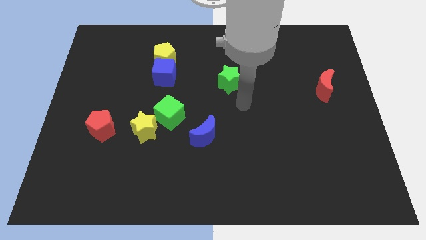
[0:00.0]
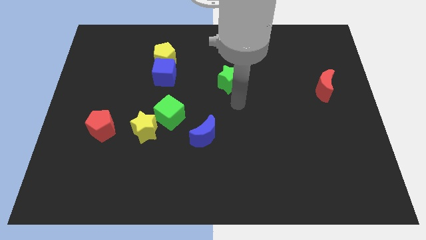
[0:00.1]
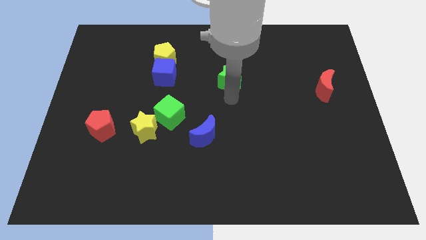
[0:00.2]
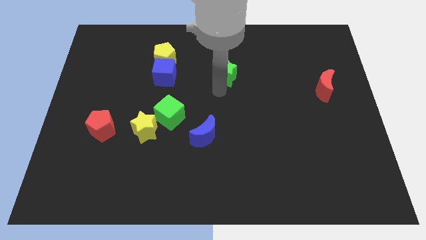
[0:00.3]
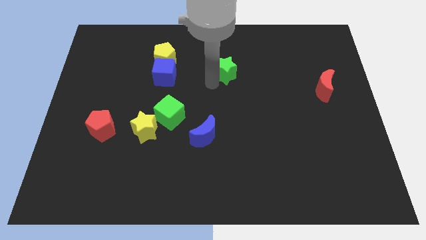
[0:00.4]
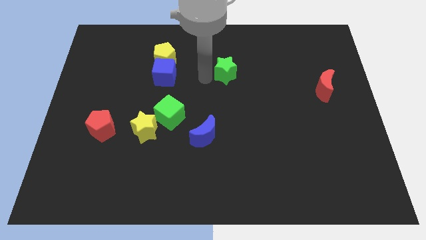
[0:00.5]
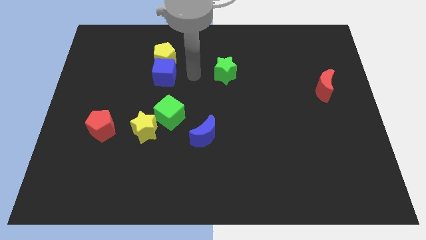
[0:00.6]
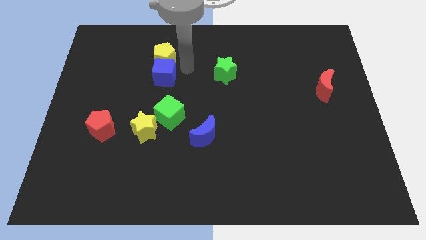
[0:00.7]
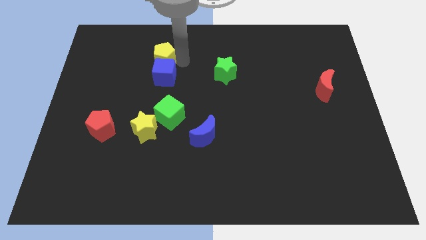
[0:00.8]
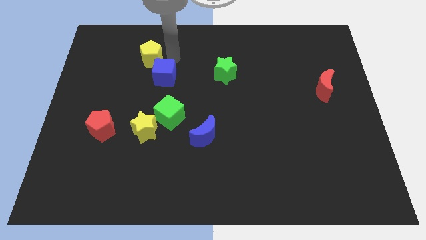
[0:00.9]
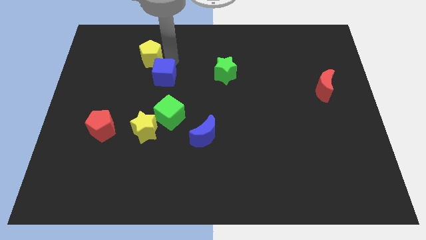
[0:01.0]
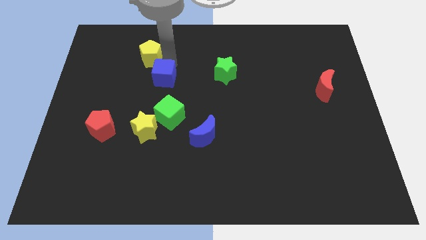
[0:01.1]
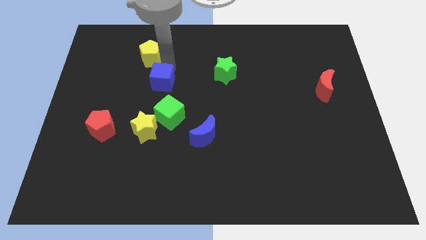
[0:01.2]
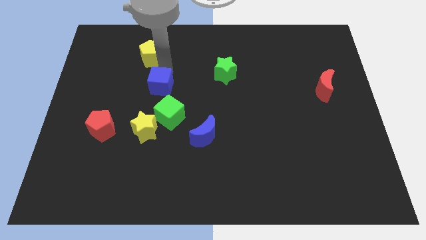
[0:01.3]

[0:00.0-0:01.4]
move the blue cube away from the yellow pentagon

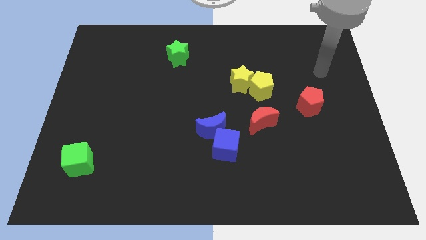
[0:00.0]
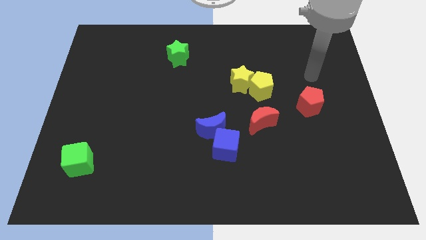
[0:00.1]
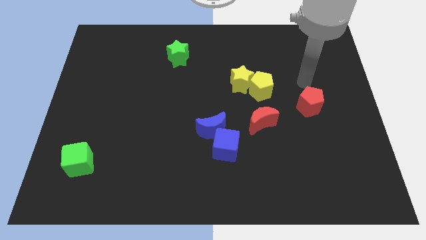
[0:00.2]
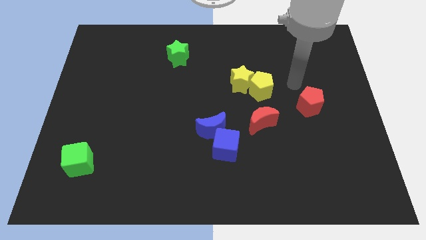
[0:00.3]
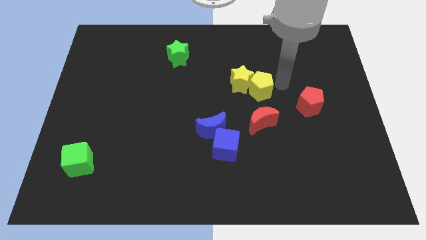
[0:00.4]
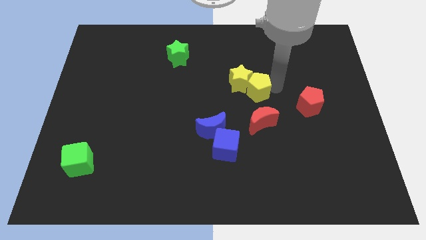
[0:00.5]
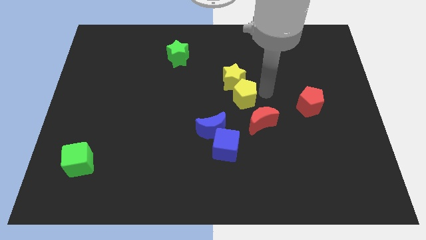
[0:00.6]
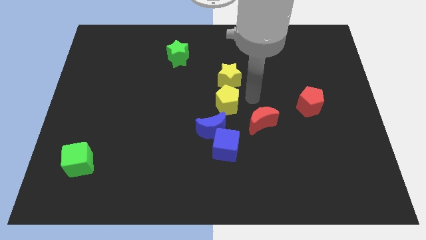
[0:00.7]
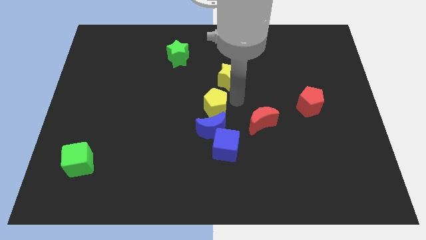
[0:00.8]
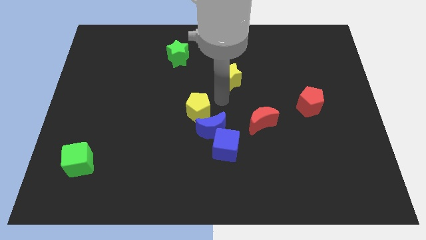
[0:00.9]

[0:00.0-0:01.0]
move the yellow star away from the yellow pentagon

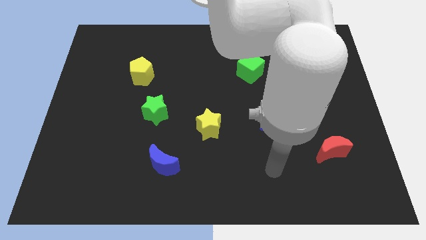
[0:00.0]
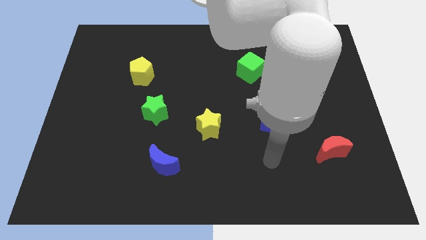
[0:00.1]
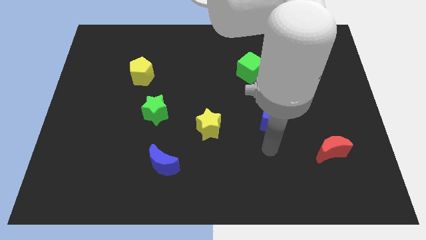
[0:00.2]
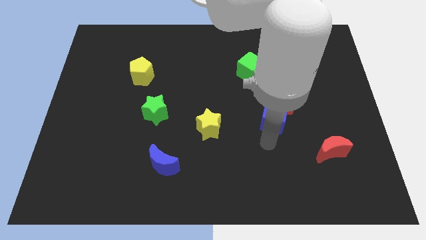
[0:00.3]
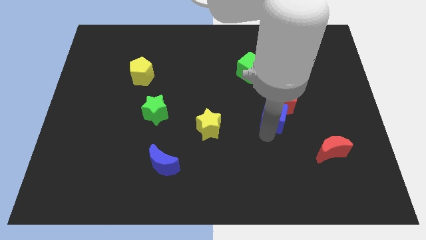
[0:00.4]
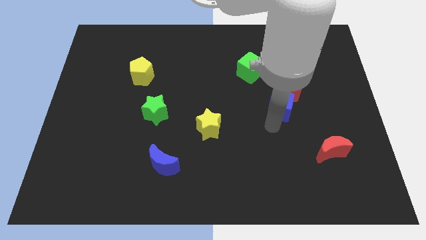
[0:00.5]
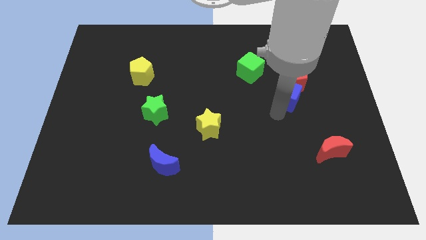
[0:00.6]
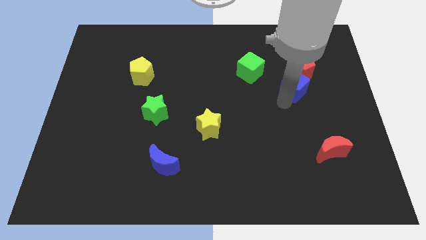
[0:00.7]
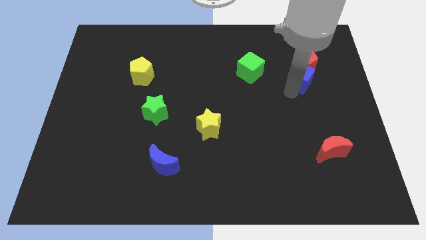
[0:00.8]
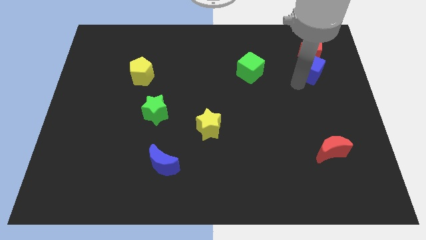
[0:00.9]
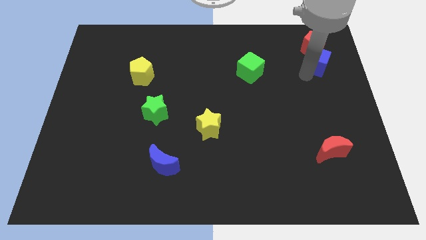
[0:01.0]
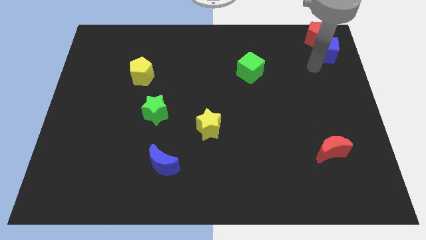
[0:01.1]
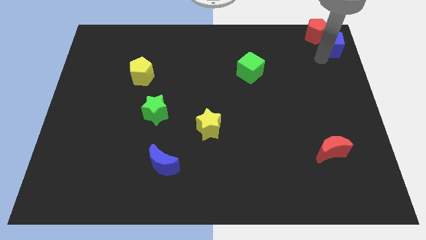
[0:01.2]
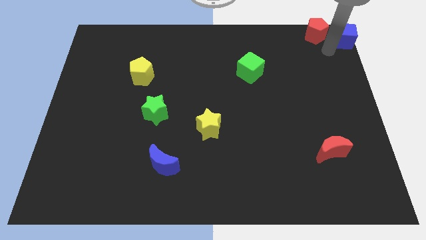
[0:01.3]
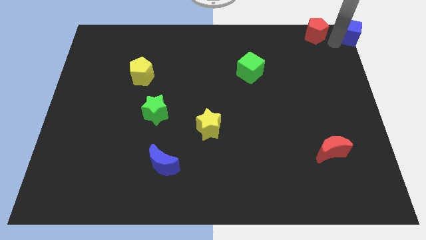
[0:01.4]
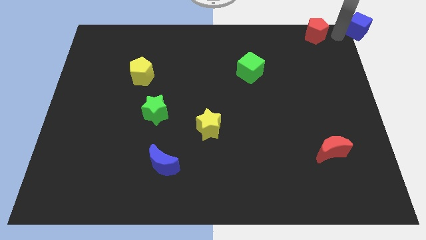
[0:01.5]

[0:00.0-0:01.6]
separate the red pentagon from the blue cube

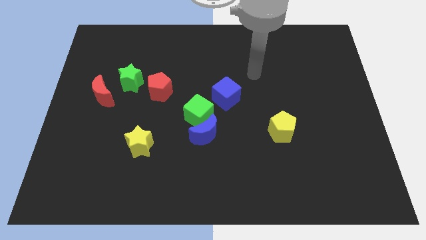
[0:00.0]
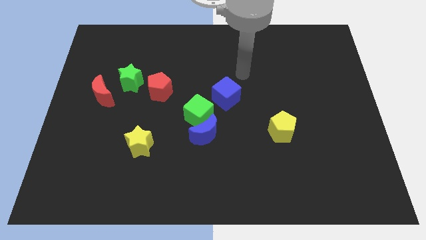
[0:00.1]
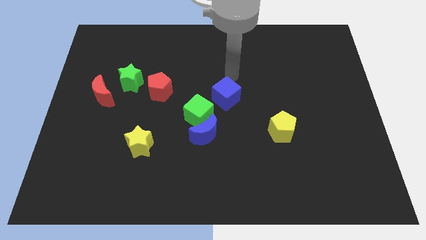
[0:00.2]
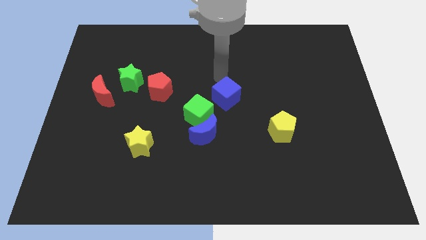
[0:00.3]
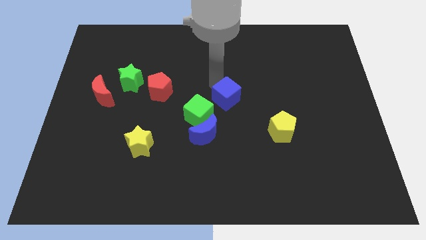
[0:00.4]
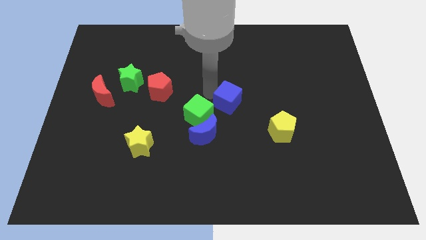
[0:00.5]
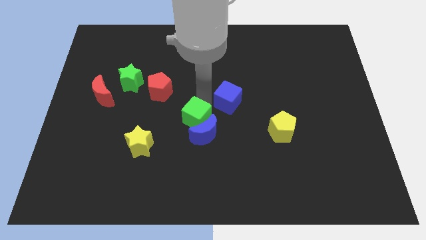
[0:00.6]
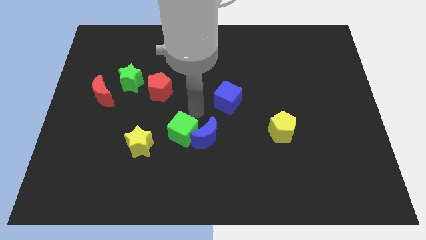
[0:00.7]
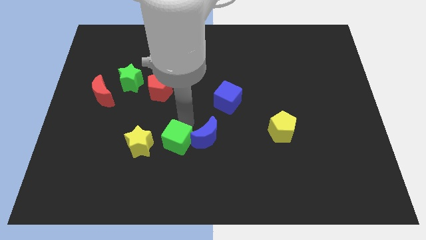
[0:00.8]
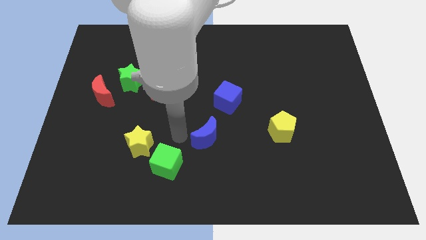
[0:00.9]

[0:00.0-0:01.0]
move the blue moon away from the green cube

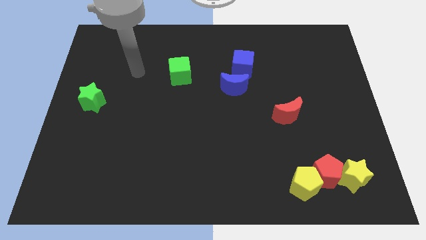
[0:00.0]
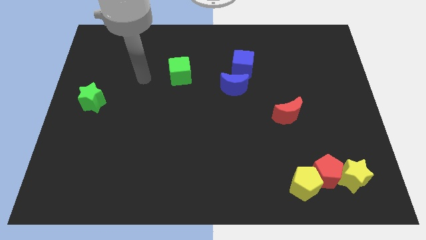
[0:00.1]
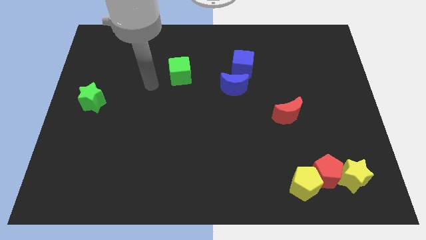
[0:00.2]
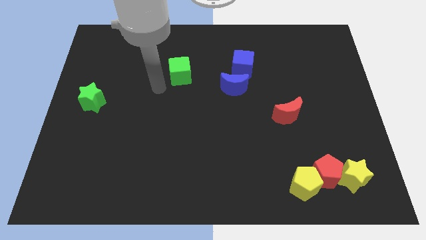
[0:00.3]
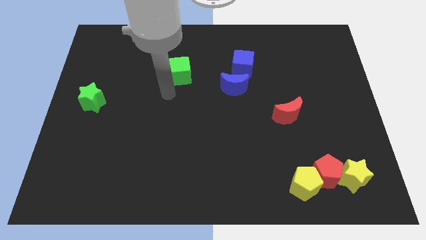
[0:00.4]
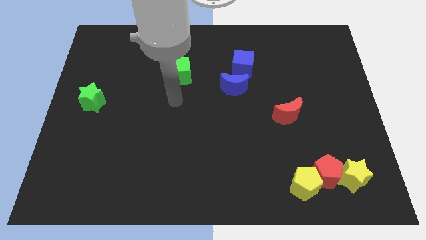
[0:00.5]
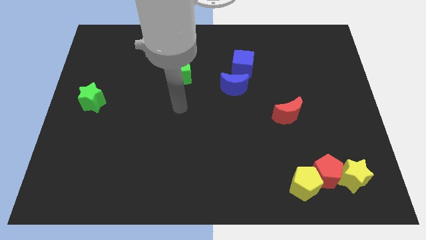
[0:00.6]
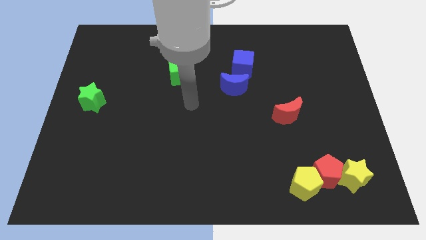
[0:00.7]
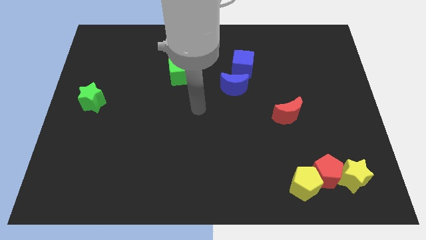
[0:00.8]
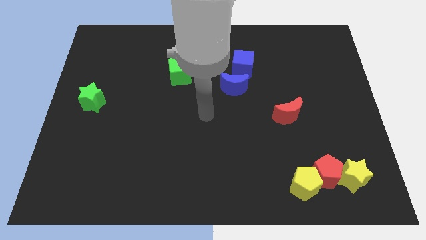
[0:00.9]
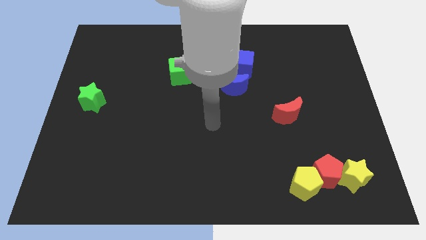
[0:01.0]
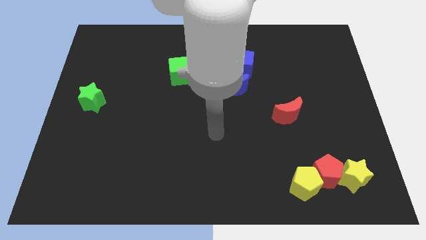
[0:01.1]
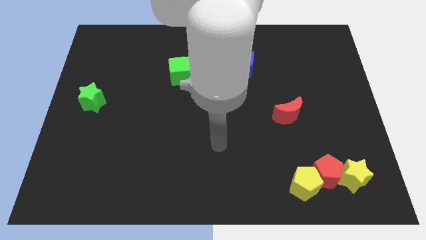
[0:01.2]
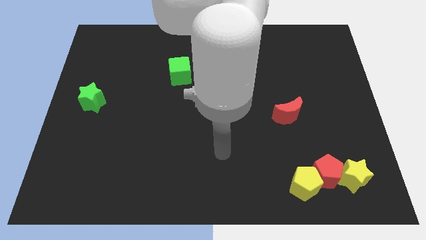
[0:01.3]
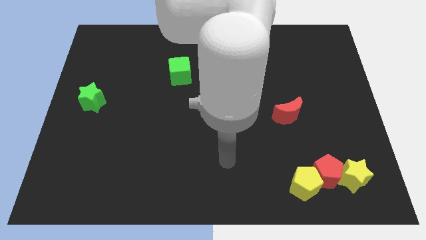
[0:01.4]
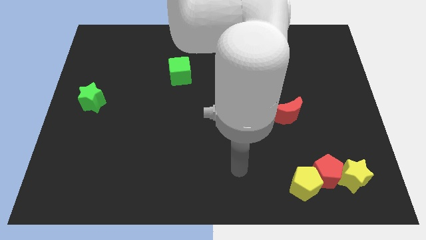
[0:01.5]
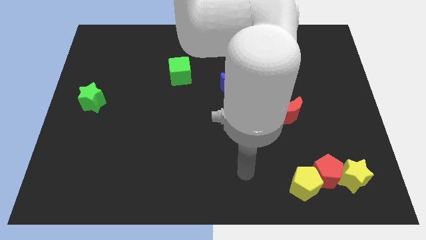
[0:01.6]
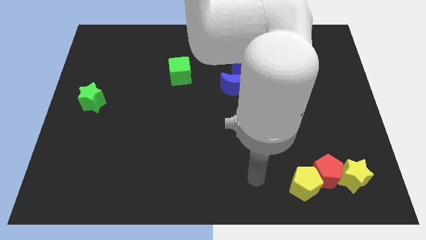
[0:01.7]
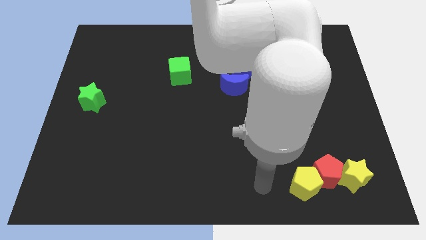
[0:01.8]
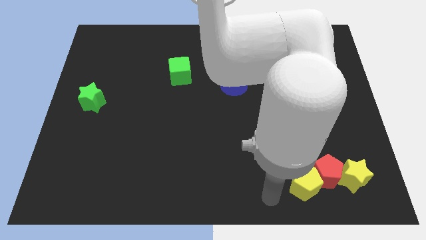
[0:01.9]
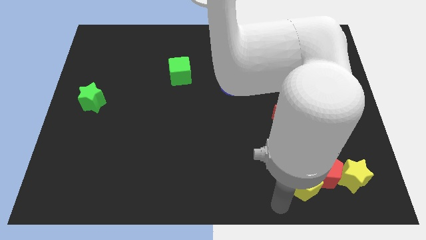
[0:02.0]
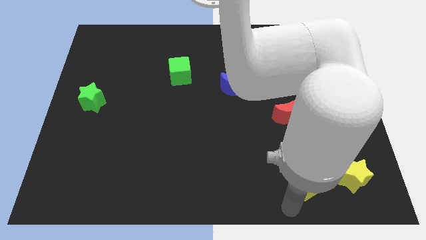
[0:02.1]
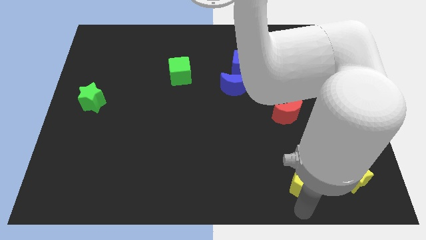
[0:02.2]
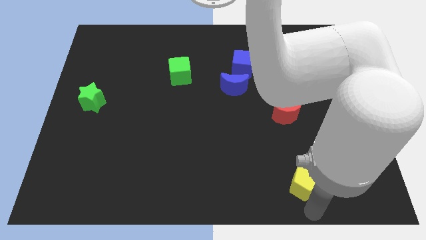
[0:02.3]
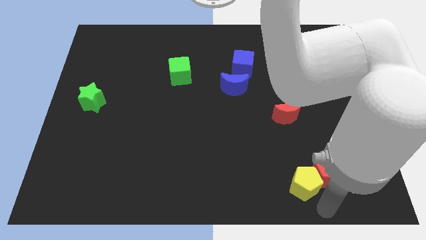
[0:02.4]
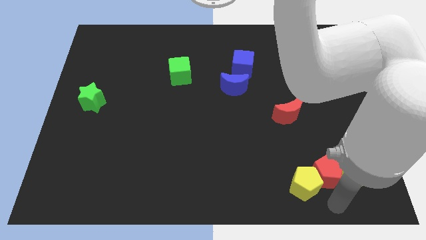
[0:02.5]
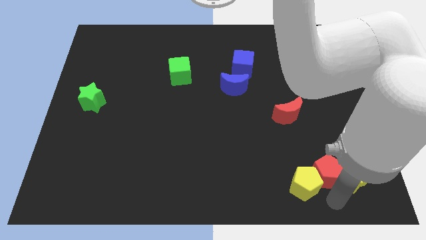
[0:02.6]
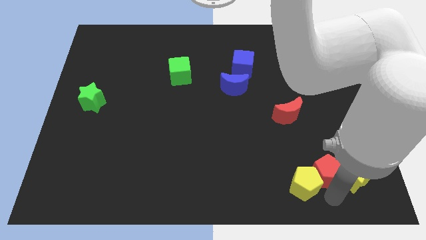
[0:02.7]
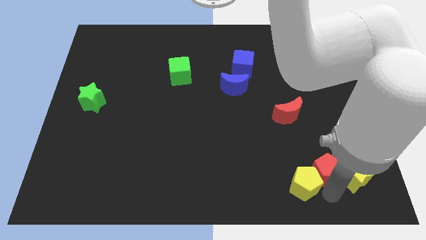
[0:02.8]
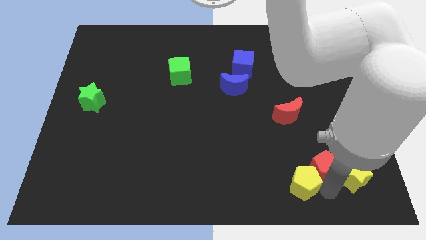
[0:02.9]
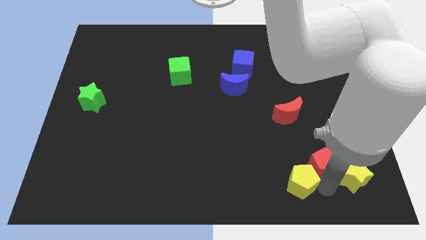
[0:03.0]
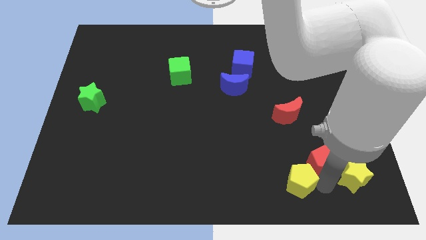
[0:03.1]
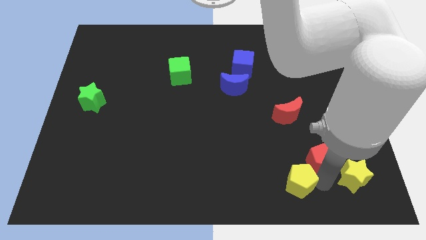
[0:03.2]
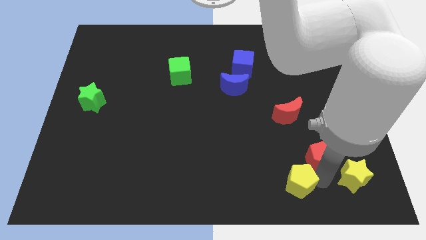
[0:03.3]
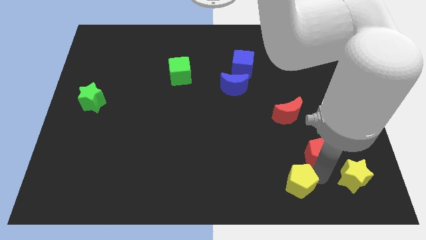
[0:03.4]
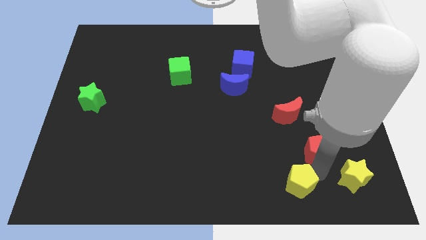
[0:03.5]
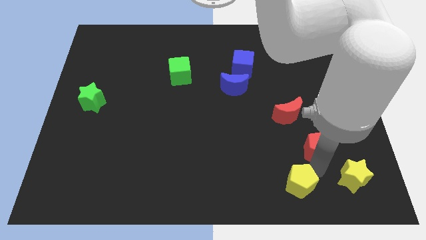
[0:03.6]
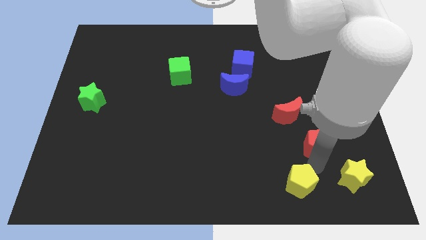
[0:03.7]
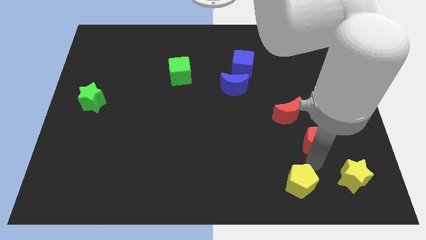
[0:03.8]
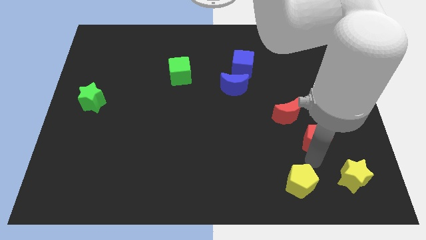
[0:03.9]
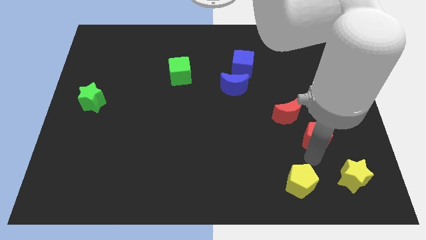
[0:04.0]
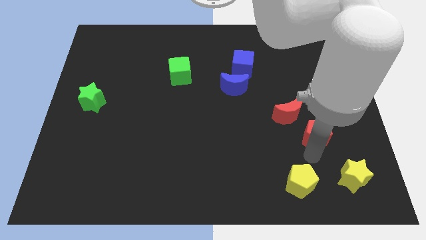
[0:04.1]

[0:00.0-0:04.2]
pull the red pentagon apart from the yellow star and yellow pentagon

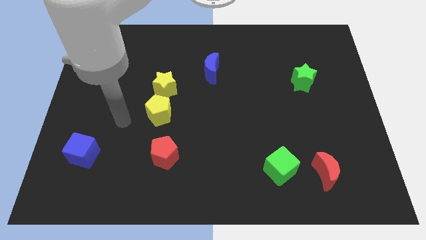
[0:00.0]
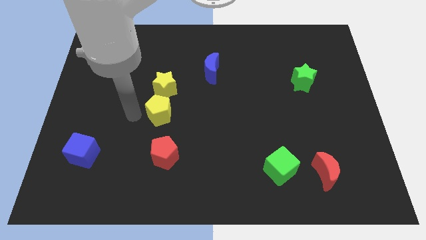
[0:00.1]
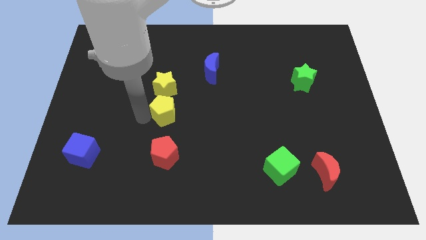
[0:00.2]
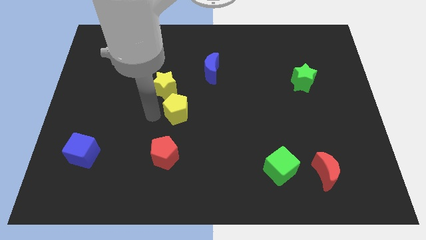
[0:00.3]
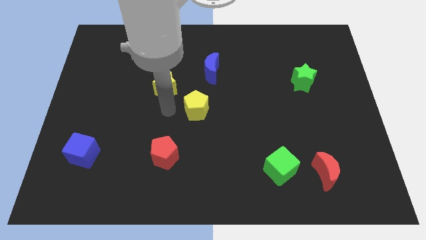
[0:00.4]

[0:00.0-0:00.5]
pull the yellow star apart from the yellow pentagon
